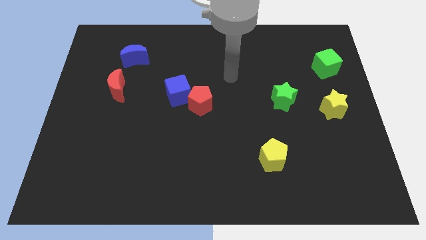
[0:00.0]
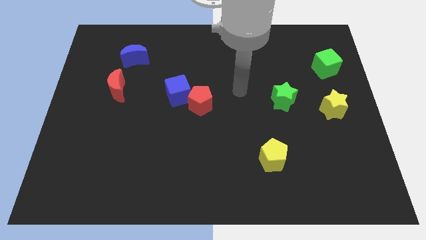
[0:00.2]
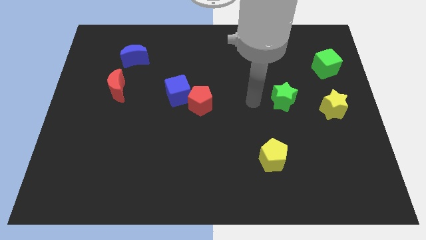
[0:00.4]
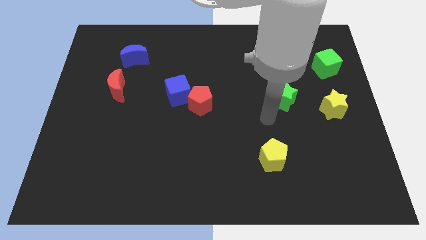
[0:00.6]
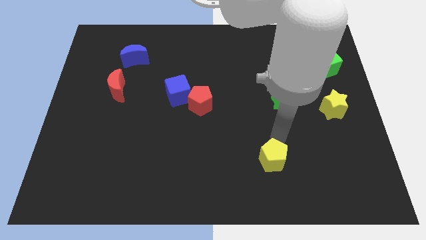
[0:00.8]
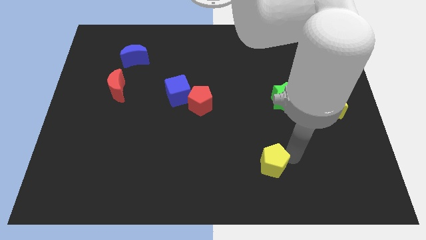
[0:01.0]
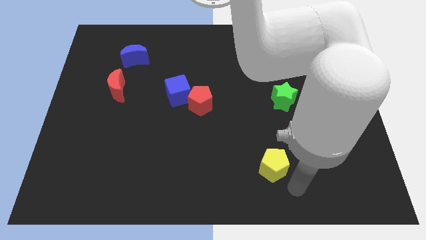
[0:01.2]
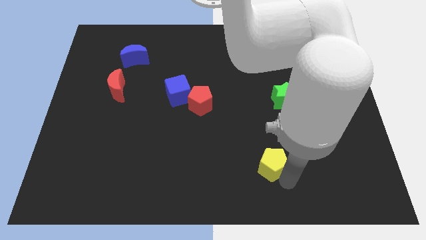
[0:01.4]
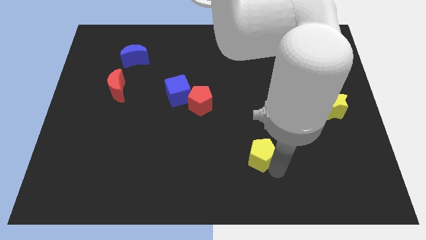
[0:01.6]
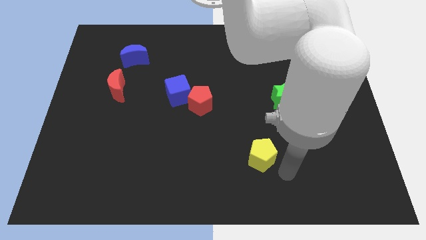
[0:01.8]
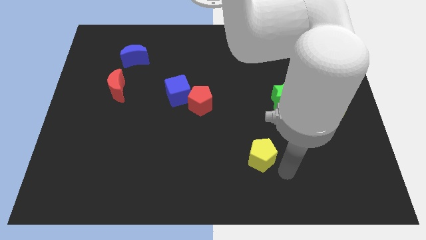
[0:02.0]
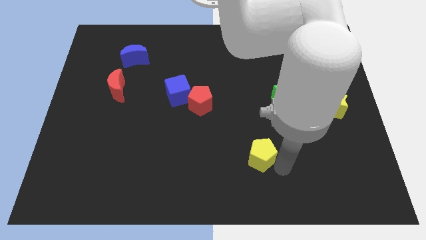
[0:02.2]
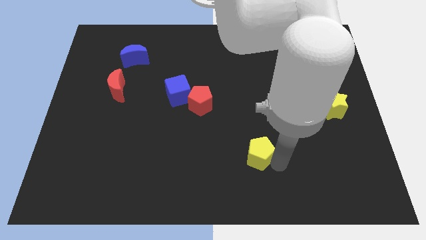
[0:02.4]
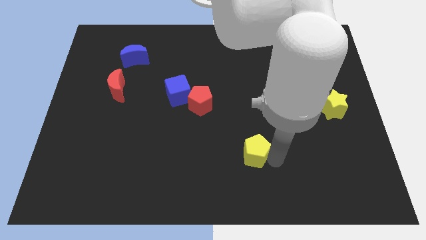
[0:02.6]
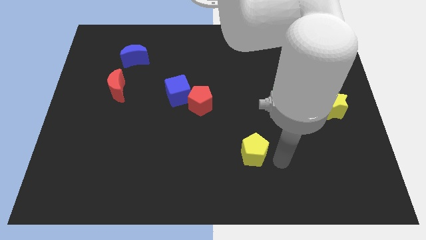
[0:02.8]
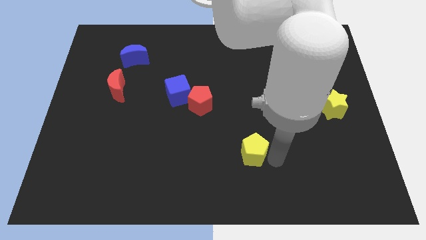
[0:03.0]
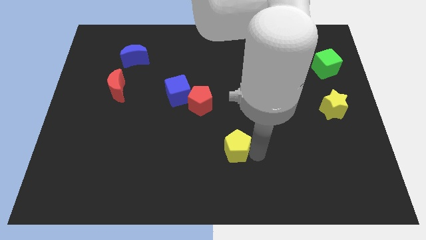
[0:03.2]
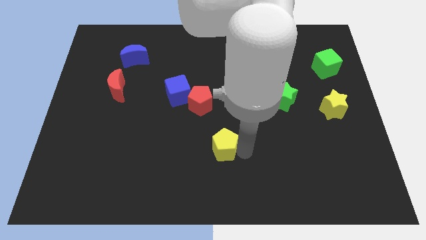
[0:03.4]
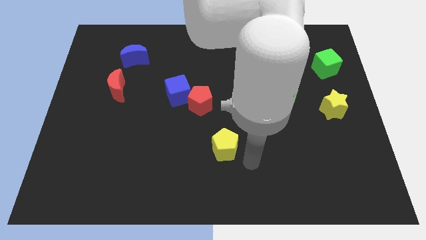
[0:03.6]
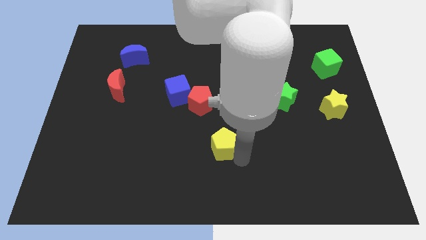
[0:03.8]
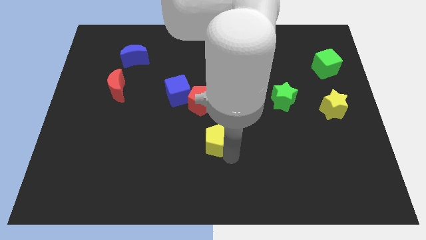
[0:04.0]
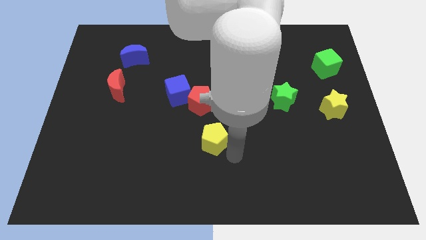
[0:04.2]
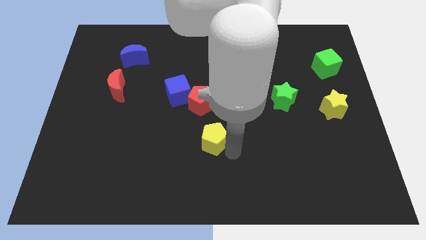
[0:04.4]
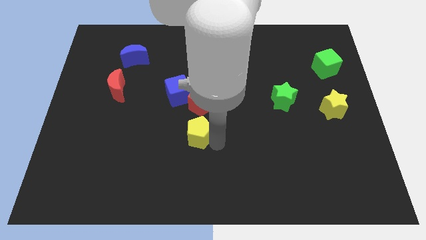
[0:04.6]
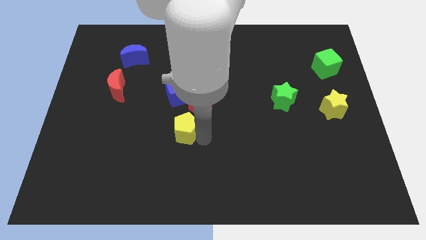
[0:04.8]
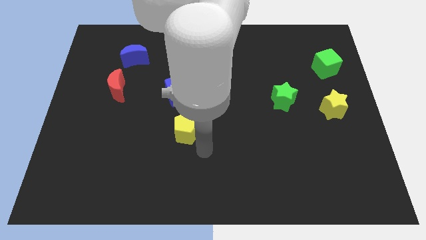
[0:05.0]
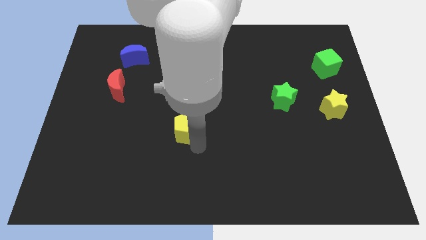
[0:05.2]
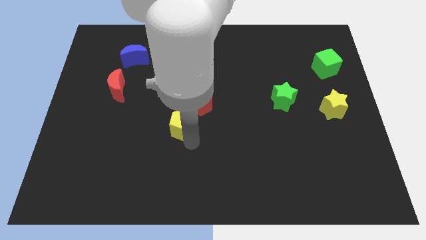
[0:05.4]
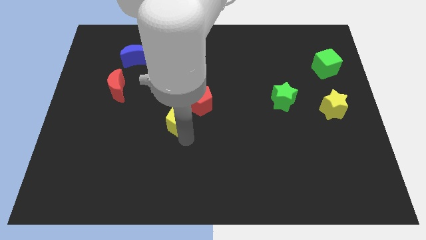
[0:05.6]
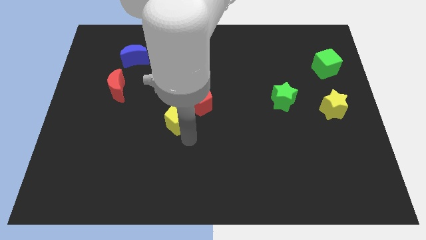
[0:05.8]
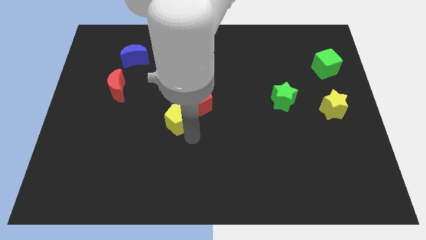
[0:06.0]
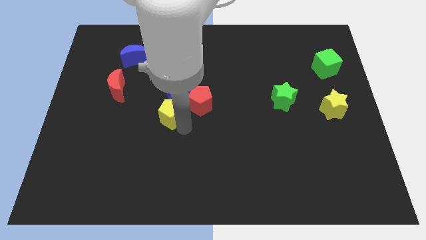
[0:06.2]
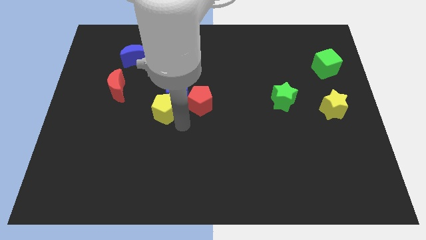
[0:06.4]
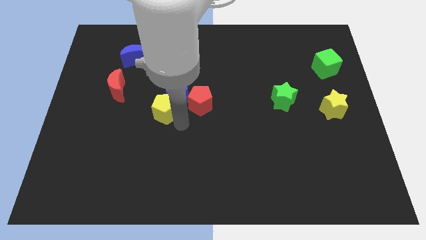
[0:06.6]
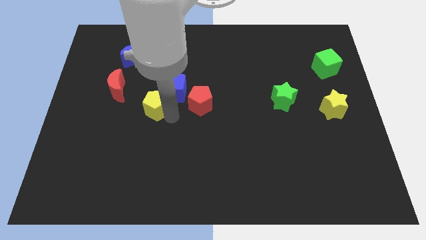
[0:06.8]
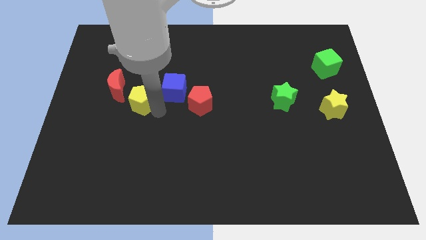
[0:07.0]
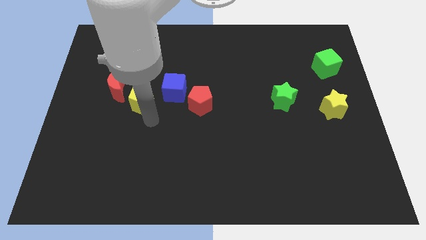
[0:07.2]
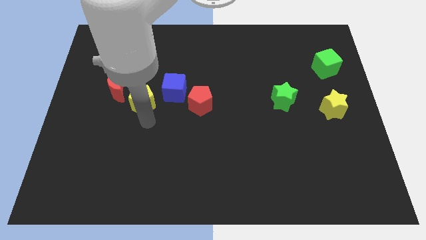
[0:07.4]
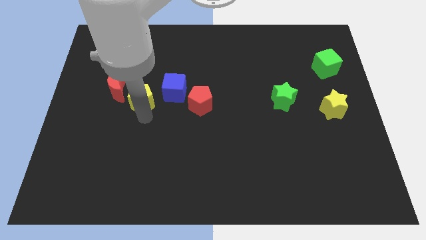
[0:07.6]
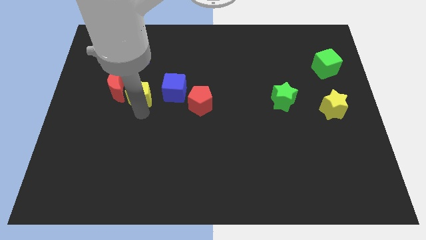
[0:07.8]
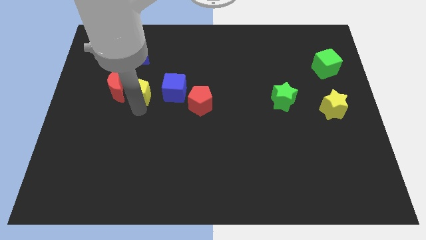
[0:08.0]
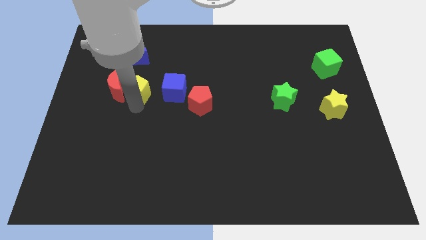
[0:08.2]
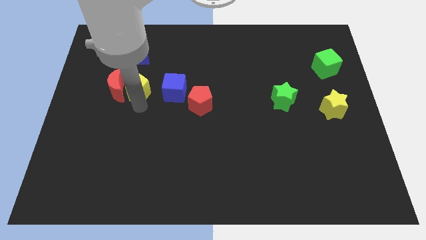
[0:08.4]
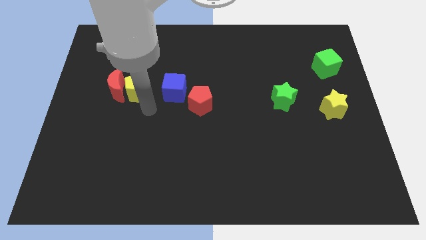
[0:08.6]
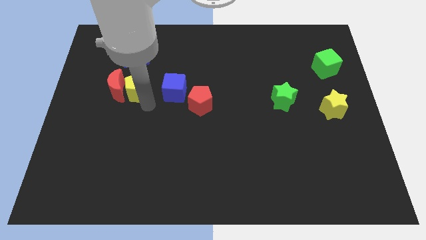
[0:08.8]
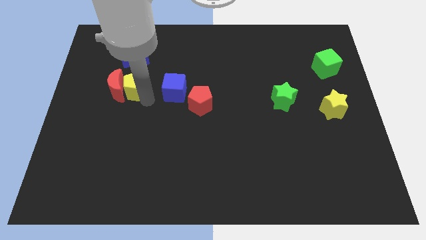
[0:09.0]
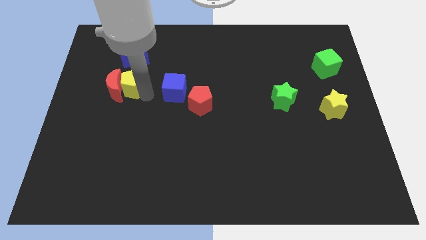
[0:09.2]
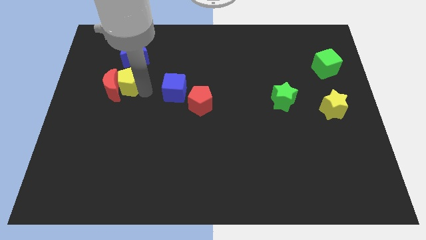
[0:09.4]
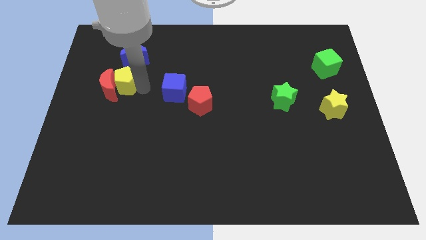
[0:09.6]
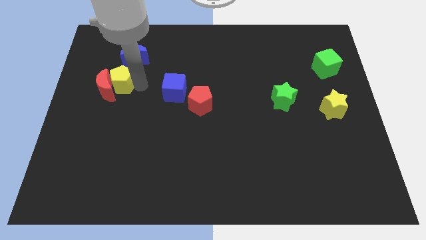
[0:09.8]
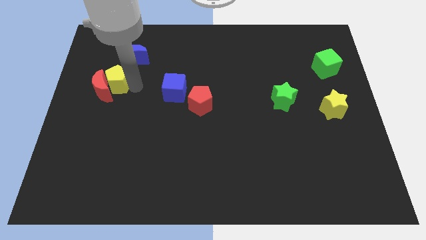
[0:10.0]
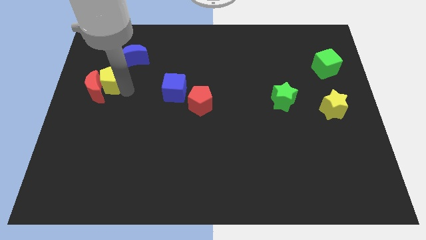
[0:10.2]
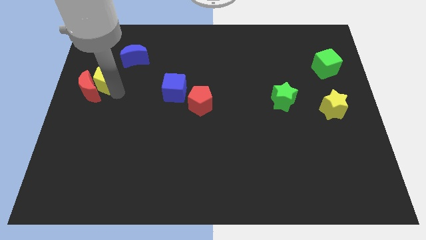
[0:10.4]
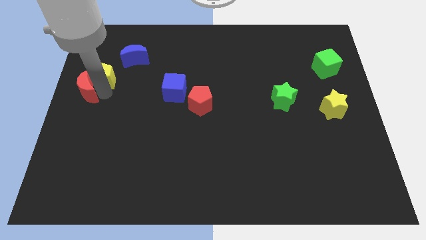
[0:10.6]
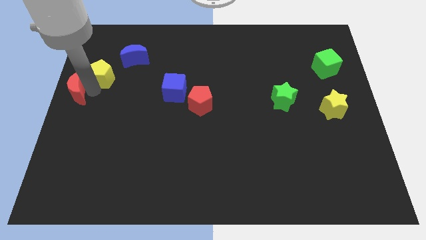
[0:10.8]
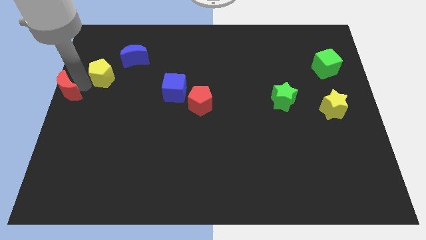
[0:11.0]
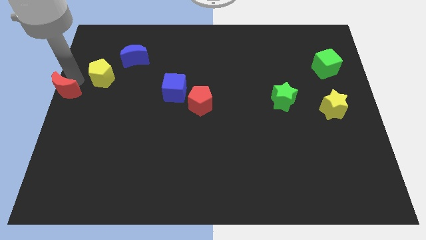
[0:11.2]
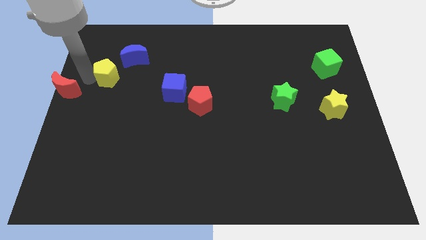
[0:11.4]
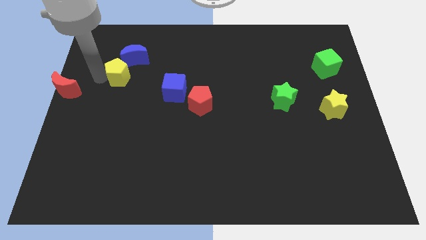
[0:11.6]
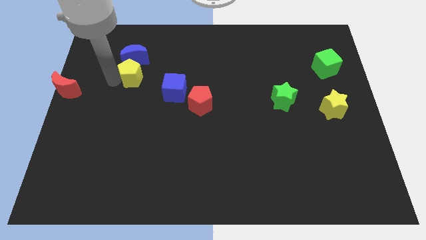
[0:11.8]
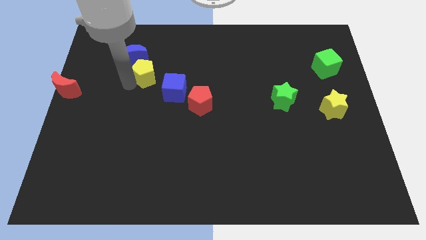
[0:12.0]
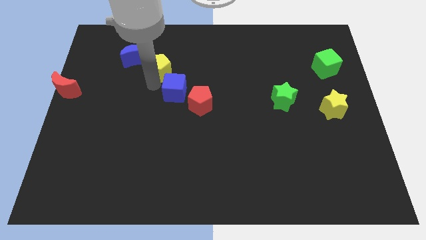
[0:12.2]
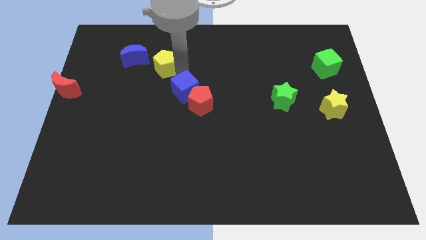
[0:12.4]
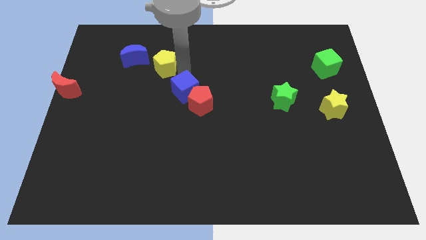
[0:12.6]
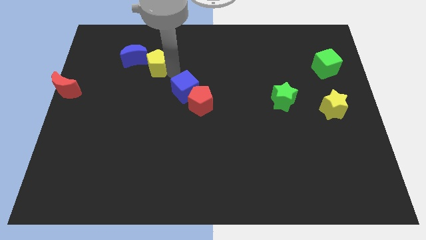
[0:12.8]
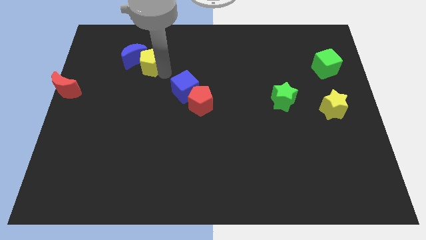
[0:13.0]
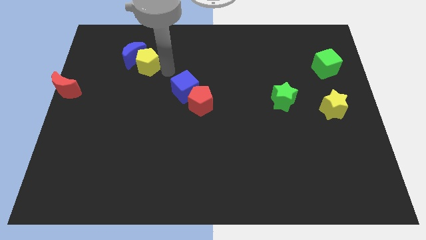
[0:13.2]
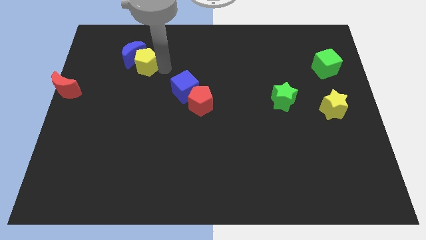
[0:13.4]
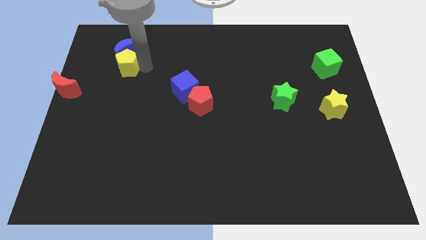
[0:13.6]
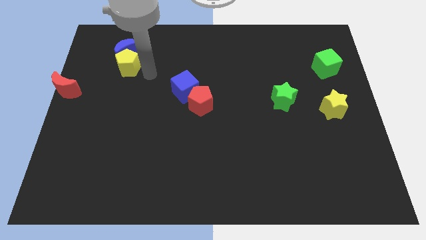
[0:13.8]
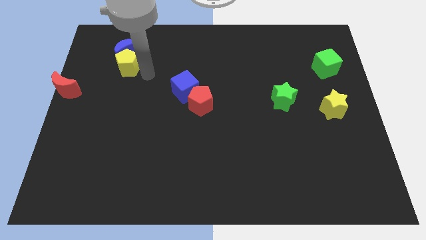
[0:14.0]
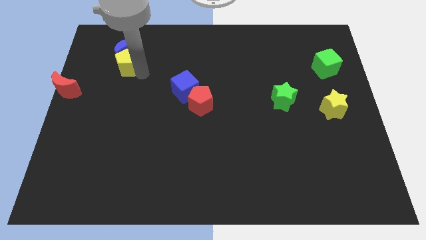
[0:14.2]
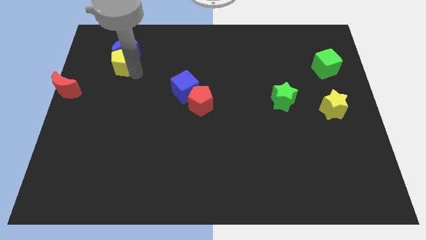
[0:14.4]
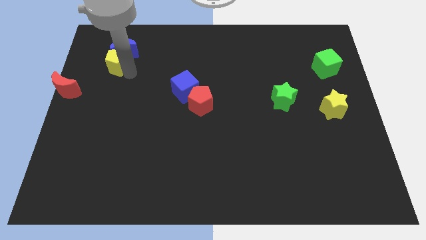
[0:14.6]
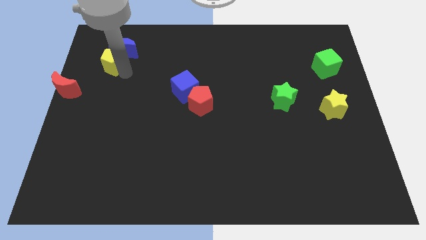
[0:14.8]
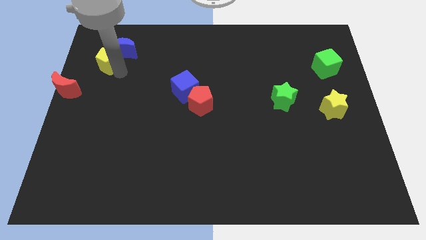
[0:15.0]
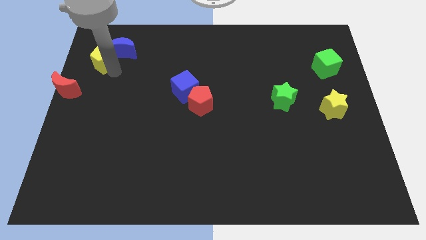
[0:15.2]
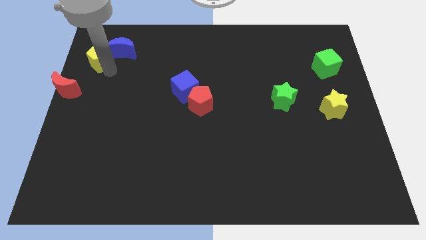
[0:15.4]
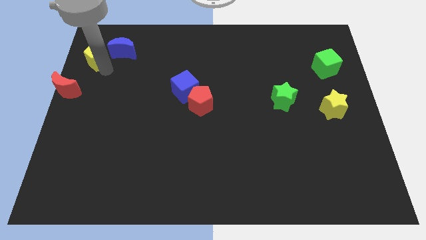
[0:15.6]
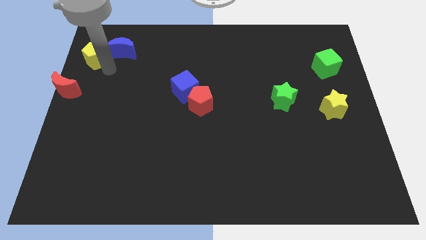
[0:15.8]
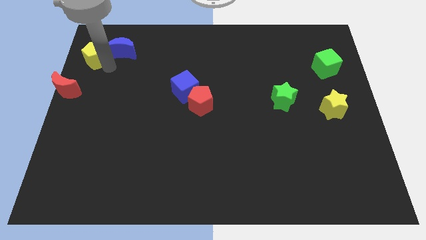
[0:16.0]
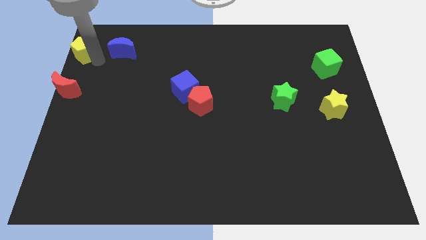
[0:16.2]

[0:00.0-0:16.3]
slide the yellow pentagon to the upper left corner
